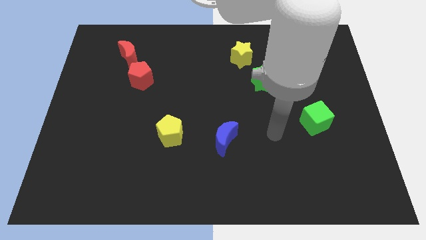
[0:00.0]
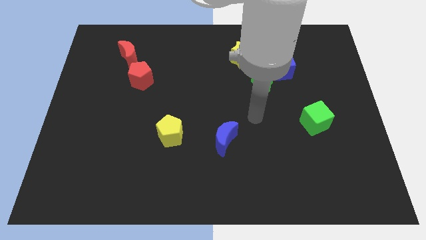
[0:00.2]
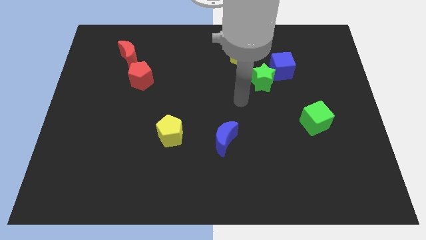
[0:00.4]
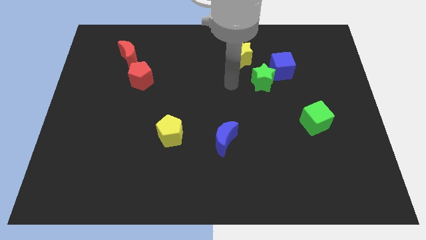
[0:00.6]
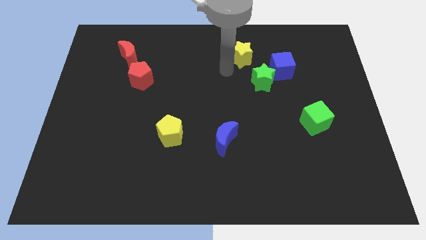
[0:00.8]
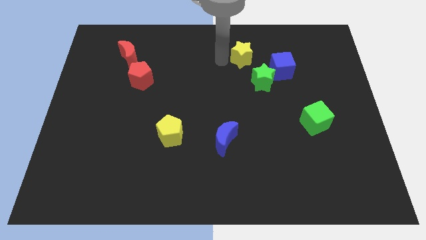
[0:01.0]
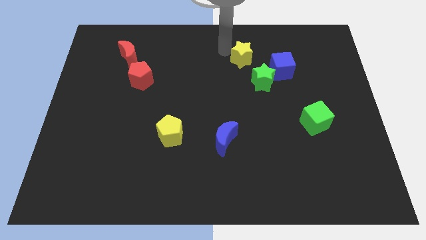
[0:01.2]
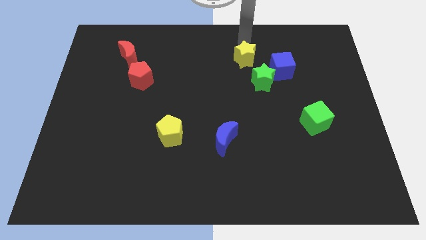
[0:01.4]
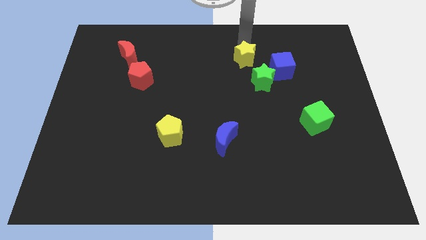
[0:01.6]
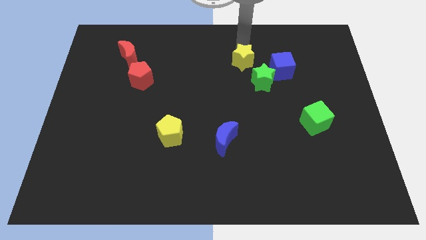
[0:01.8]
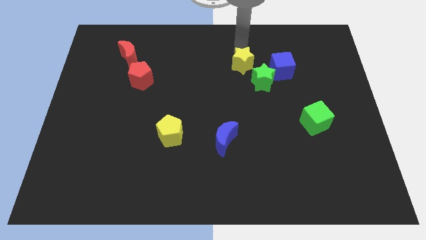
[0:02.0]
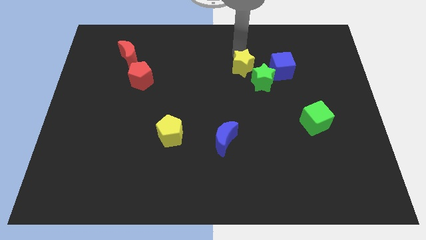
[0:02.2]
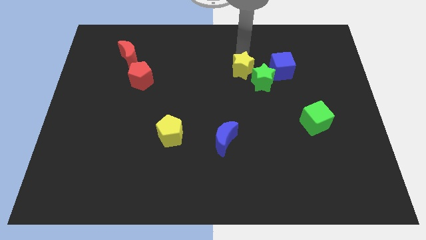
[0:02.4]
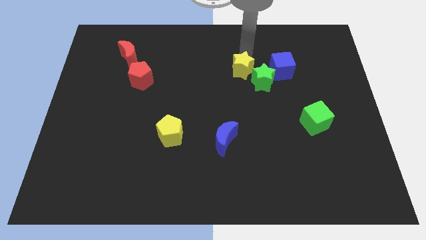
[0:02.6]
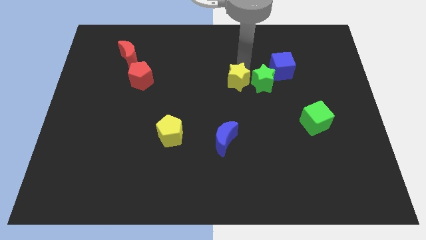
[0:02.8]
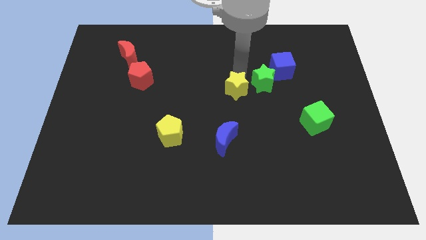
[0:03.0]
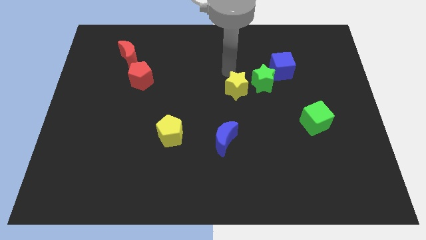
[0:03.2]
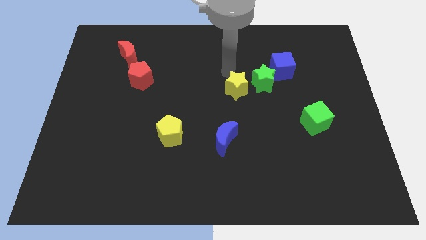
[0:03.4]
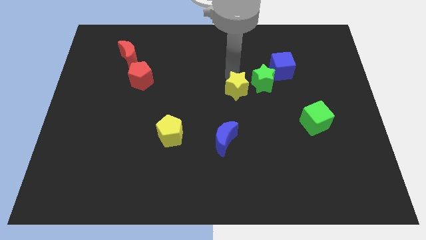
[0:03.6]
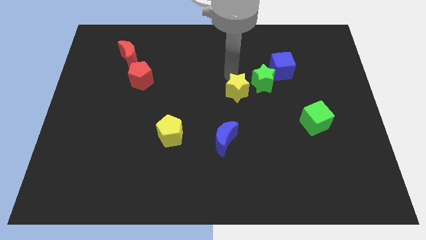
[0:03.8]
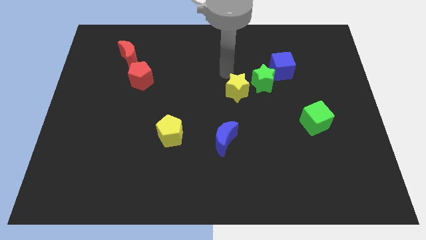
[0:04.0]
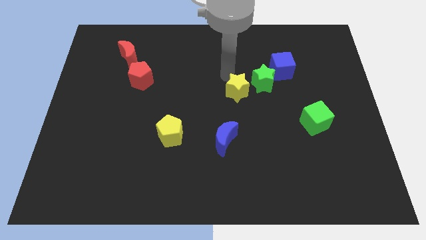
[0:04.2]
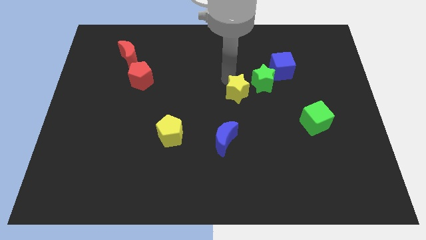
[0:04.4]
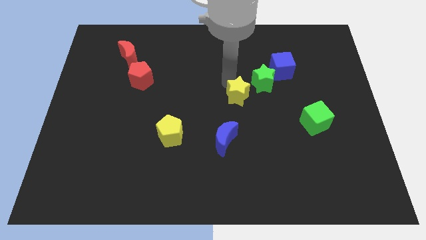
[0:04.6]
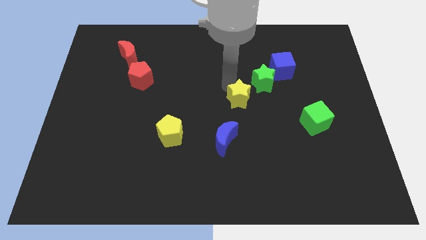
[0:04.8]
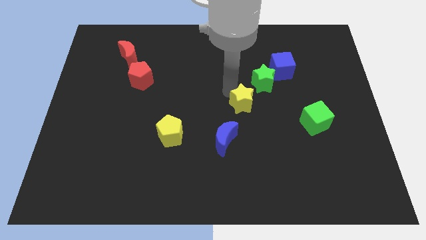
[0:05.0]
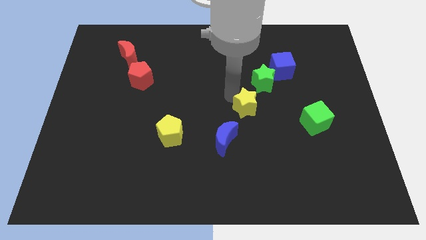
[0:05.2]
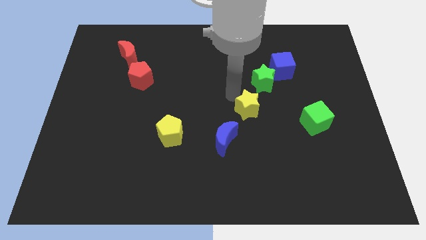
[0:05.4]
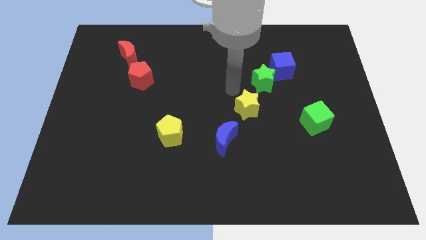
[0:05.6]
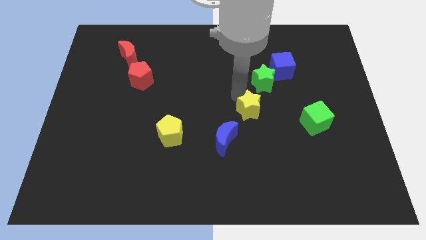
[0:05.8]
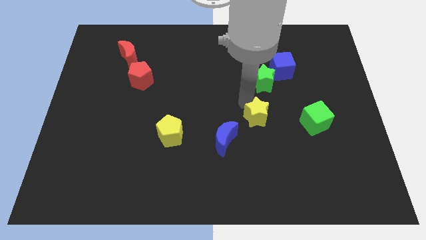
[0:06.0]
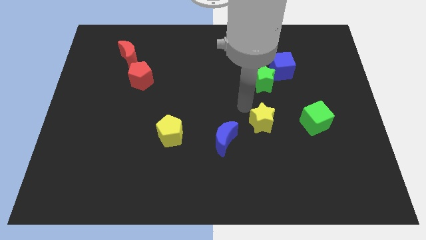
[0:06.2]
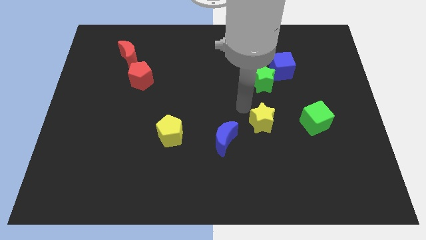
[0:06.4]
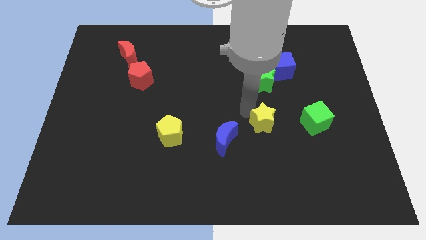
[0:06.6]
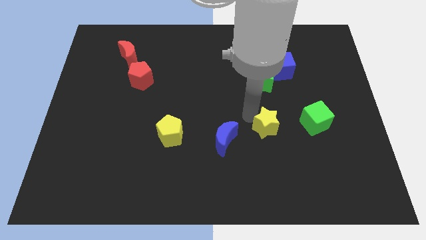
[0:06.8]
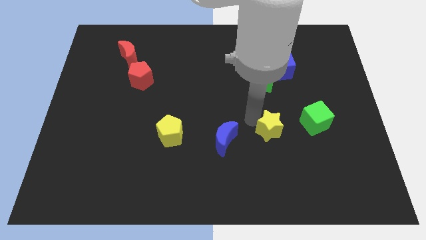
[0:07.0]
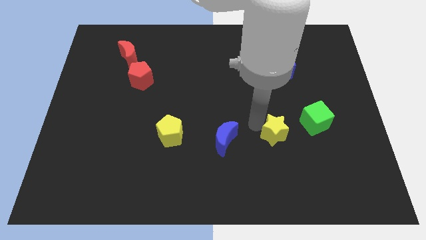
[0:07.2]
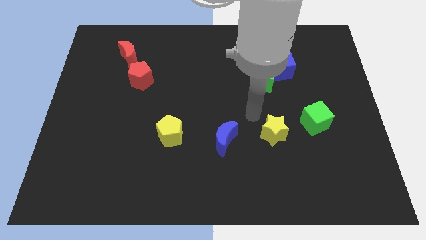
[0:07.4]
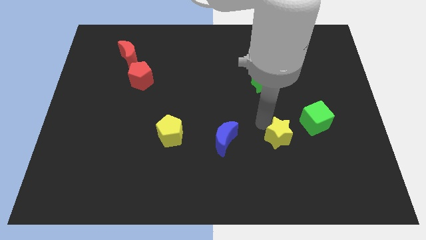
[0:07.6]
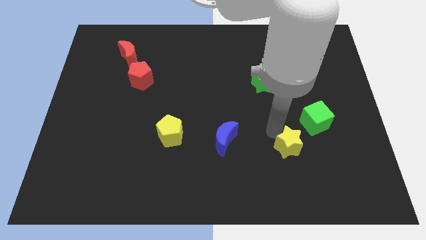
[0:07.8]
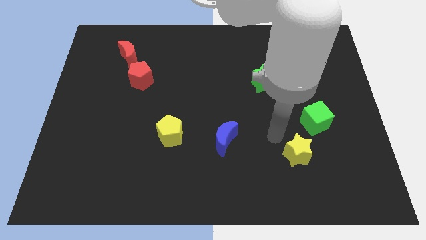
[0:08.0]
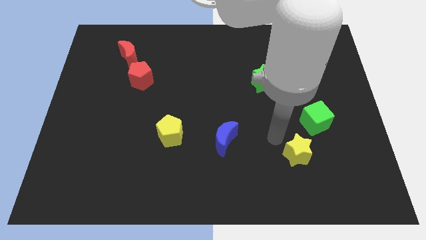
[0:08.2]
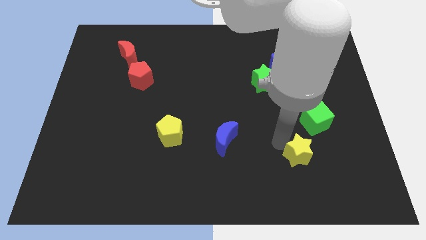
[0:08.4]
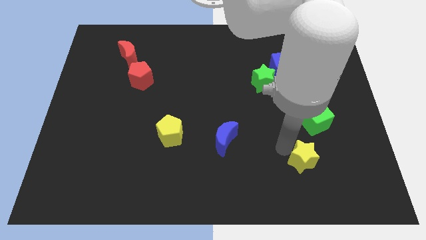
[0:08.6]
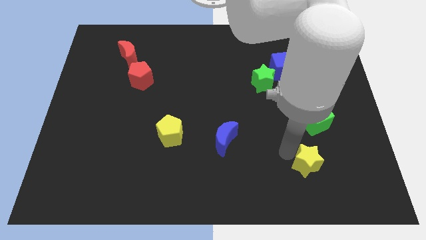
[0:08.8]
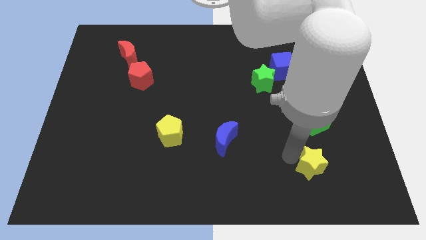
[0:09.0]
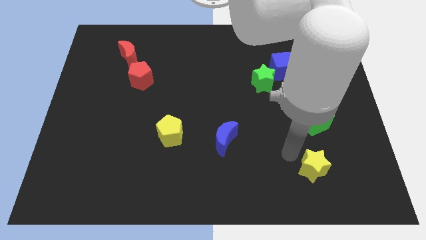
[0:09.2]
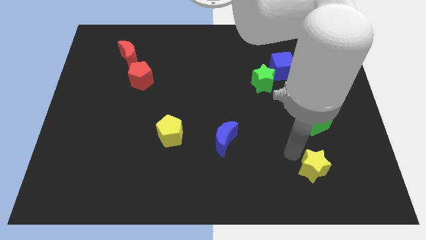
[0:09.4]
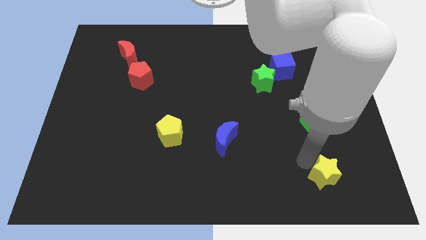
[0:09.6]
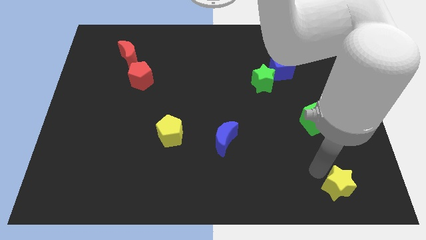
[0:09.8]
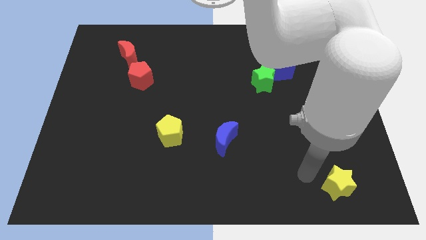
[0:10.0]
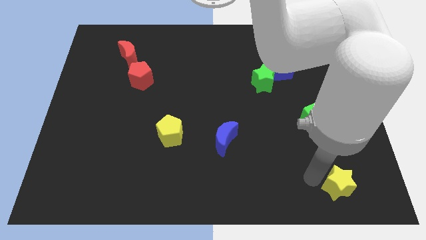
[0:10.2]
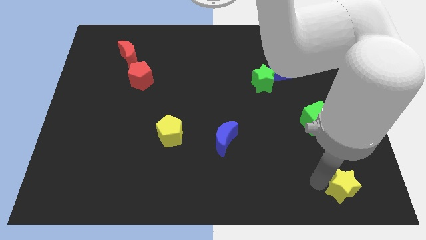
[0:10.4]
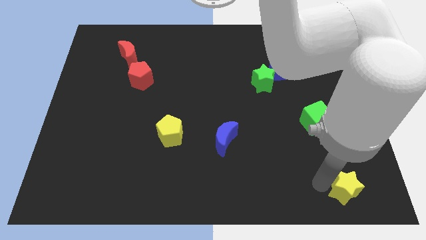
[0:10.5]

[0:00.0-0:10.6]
put the yellow star to the bottom right

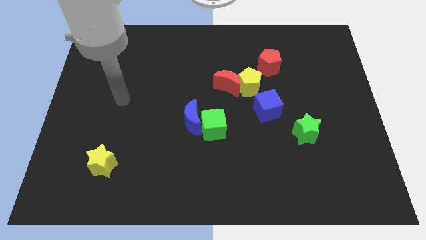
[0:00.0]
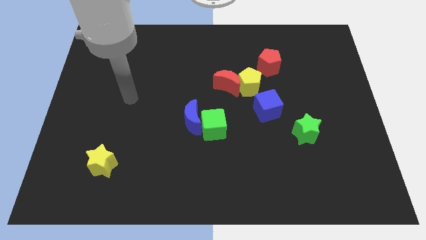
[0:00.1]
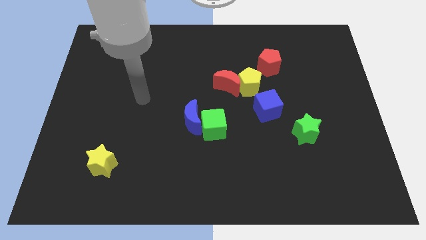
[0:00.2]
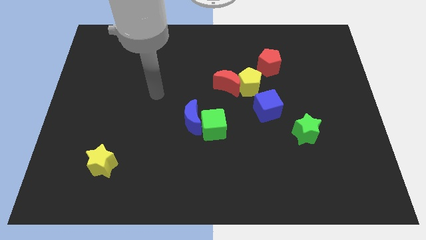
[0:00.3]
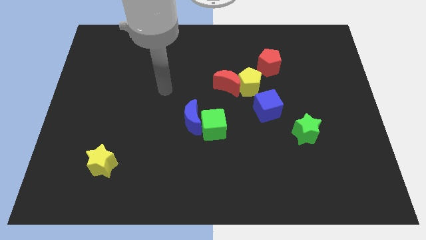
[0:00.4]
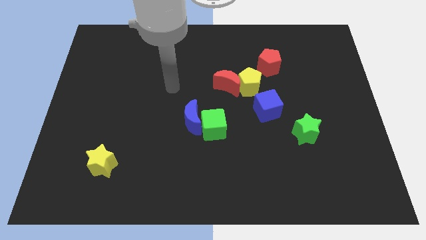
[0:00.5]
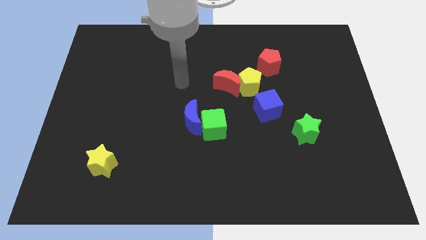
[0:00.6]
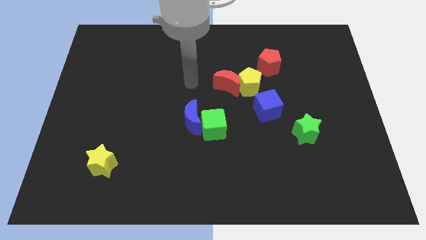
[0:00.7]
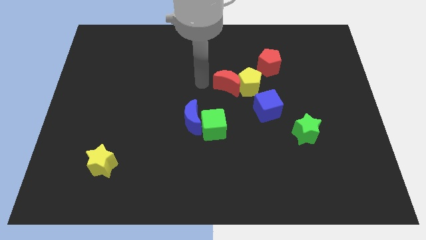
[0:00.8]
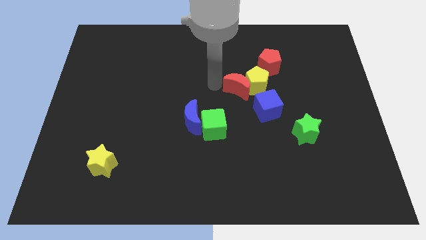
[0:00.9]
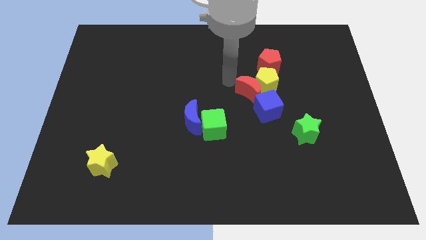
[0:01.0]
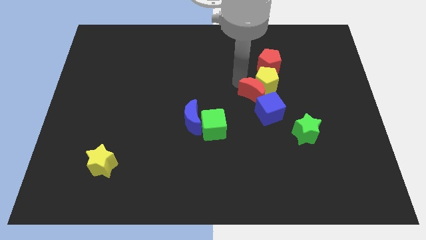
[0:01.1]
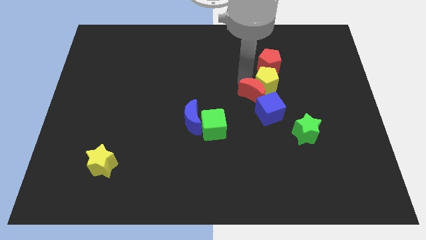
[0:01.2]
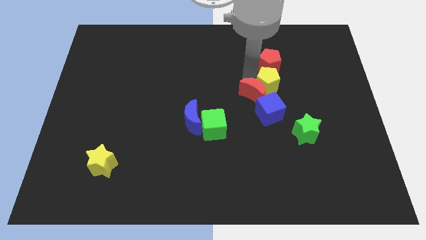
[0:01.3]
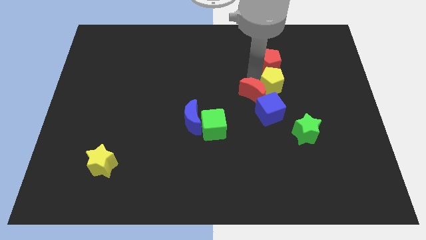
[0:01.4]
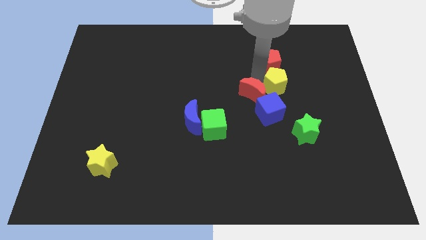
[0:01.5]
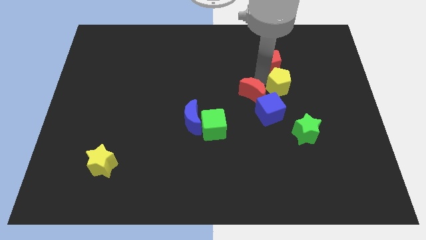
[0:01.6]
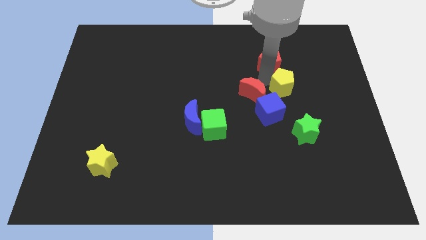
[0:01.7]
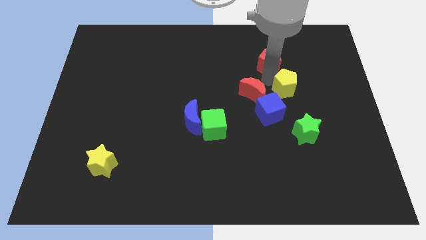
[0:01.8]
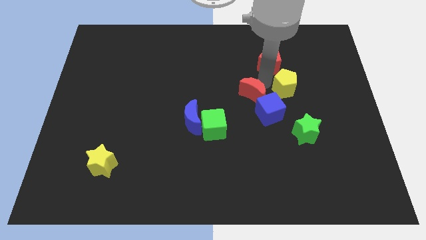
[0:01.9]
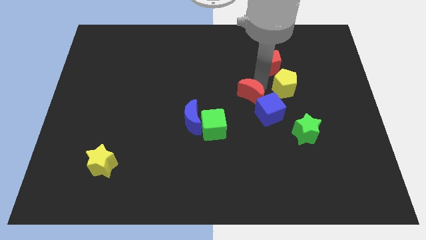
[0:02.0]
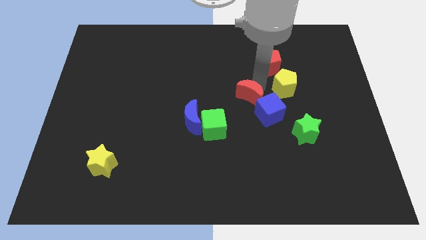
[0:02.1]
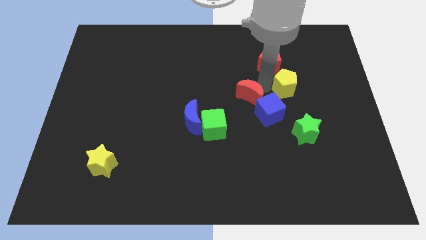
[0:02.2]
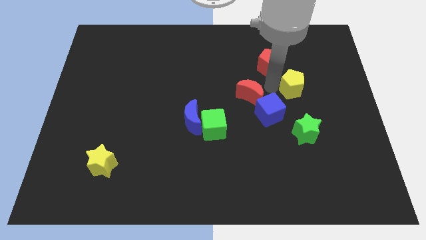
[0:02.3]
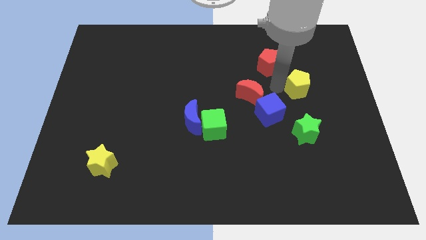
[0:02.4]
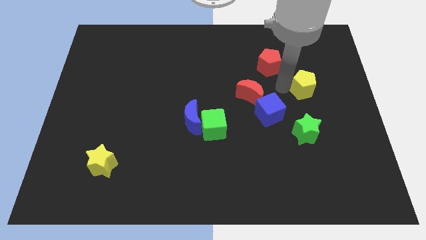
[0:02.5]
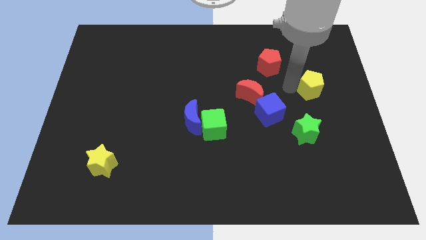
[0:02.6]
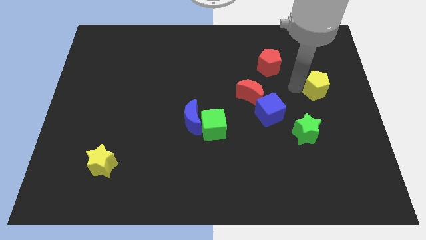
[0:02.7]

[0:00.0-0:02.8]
slide the yellow pentagon to the right side of the board
